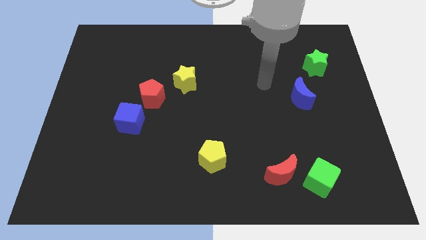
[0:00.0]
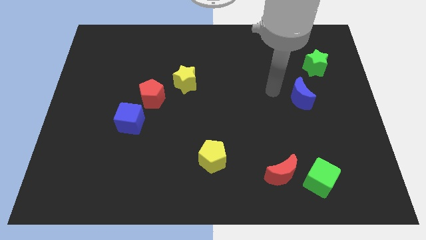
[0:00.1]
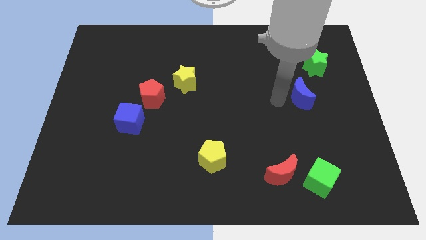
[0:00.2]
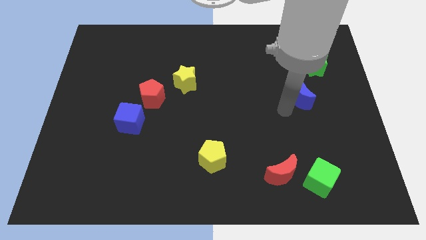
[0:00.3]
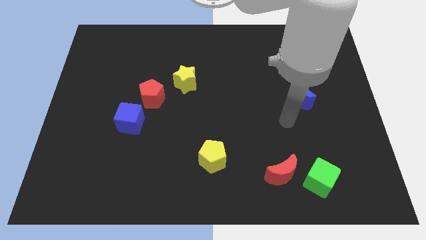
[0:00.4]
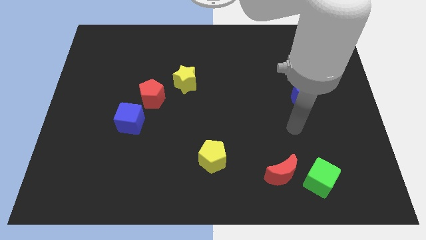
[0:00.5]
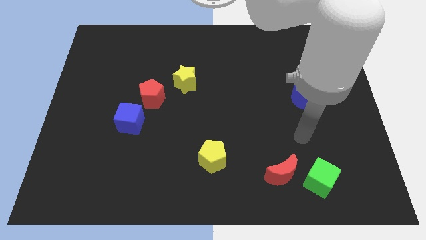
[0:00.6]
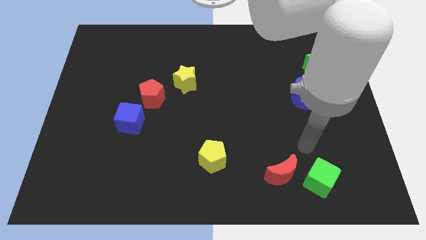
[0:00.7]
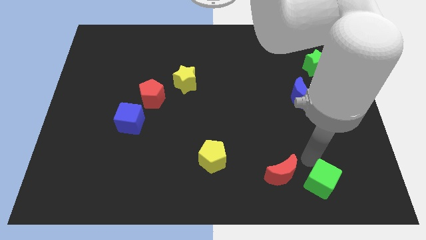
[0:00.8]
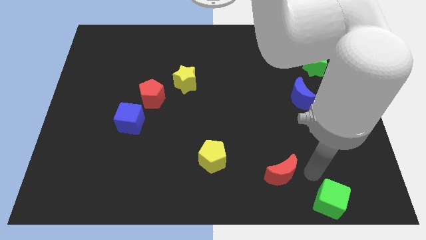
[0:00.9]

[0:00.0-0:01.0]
separate the red moon from the green cube

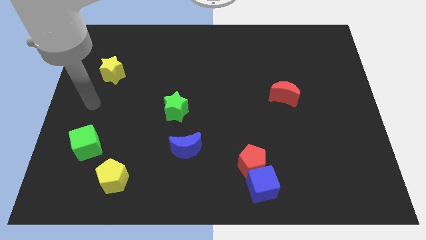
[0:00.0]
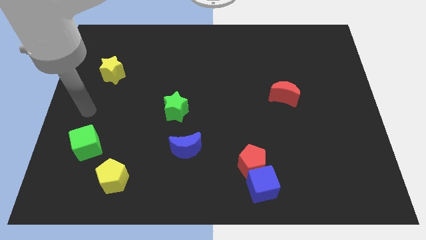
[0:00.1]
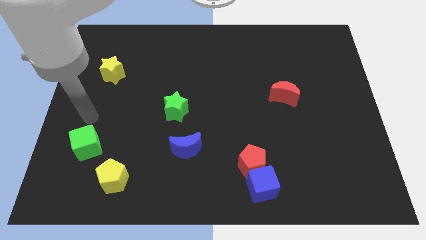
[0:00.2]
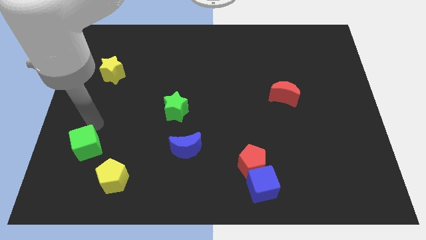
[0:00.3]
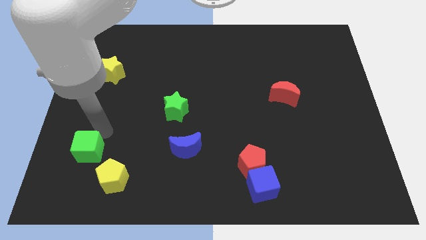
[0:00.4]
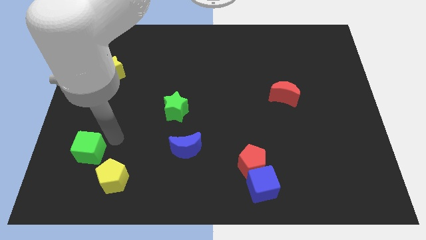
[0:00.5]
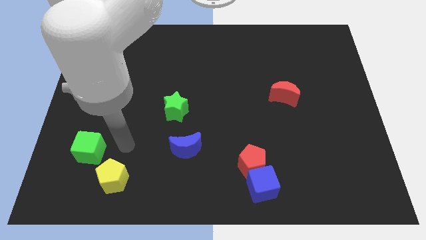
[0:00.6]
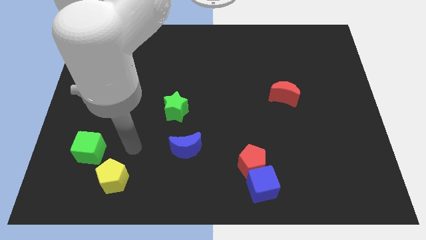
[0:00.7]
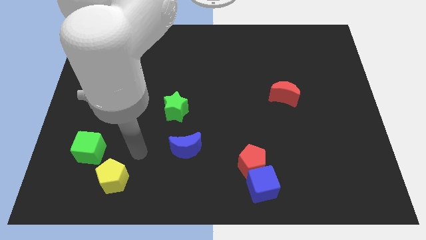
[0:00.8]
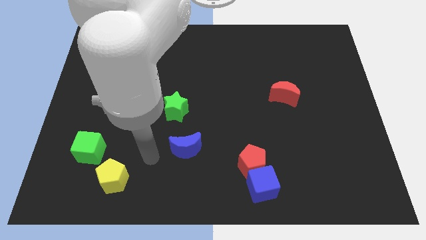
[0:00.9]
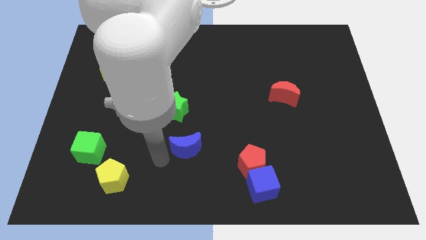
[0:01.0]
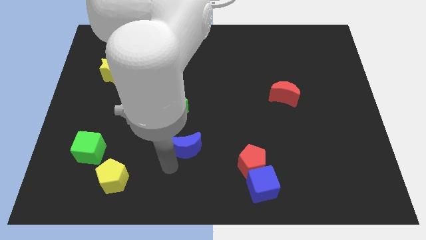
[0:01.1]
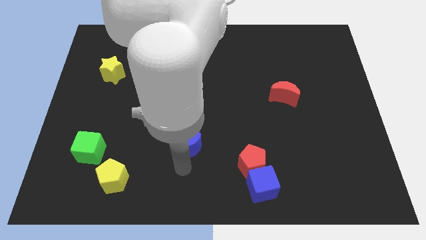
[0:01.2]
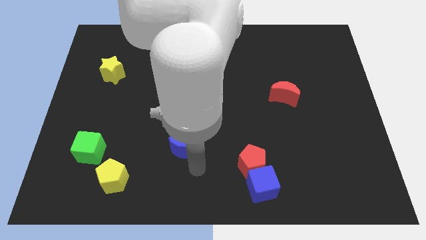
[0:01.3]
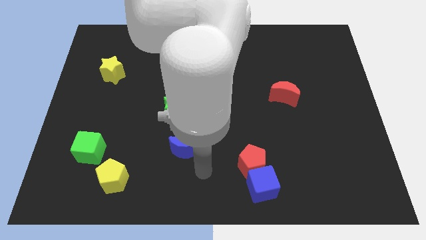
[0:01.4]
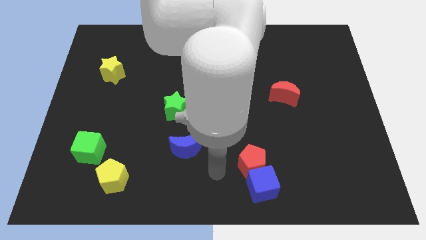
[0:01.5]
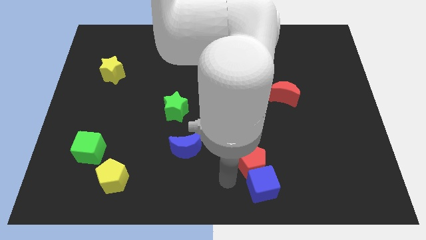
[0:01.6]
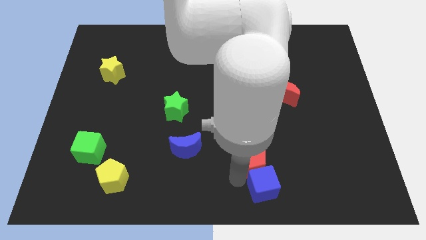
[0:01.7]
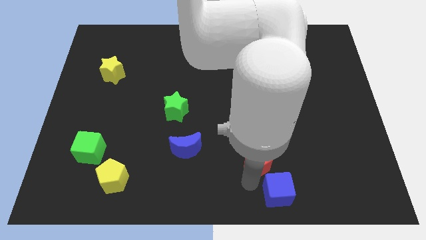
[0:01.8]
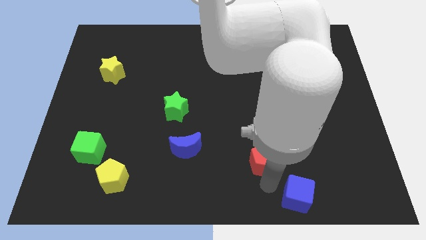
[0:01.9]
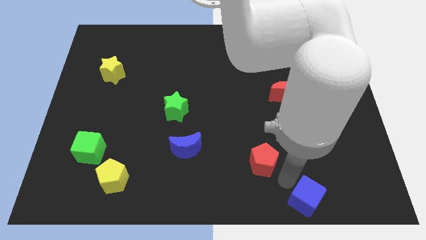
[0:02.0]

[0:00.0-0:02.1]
pull the red pentagon apart from the blue cube

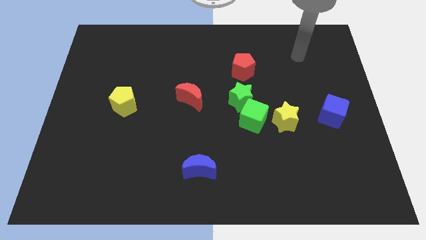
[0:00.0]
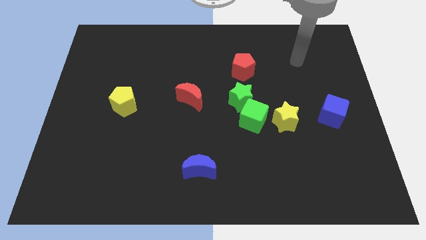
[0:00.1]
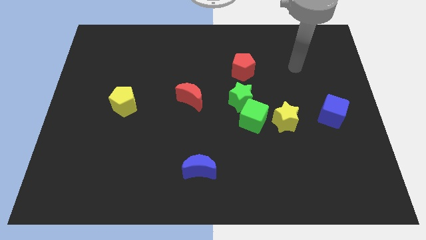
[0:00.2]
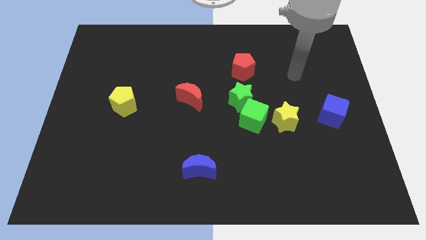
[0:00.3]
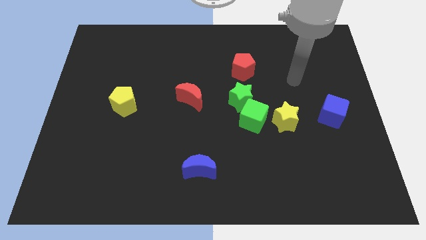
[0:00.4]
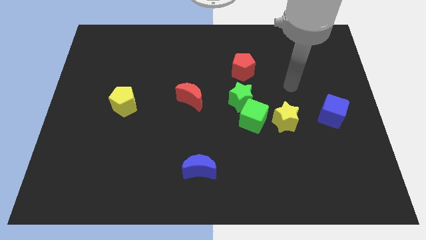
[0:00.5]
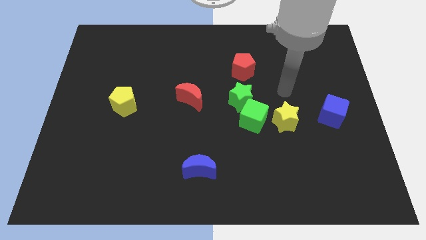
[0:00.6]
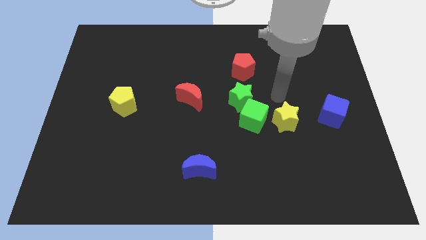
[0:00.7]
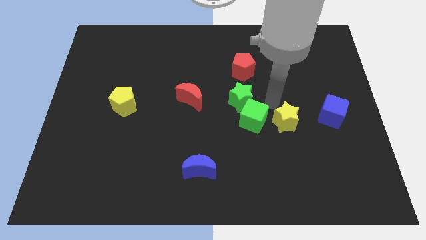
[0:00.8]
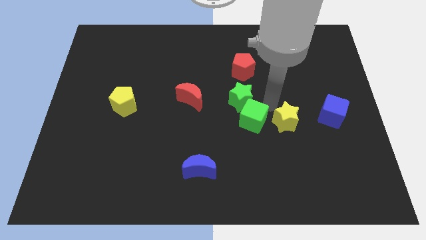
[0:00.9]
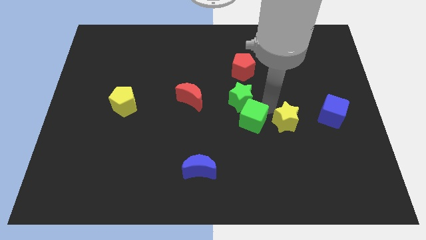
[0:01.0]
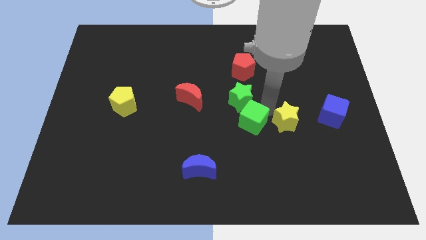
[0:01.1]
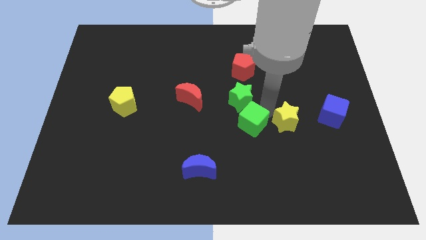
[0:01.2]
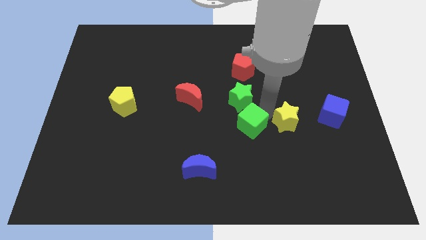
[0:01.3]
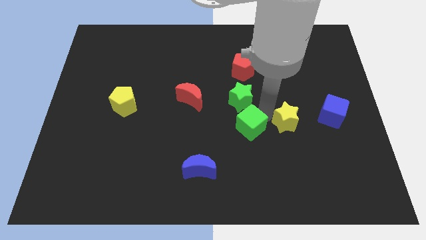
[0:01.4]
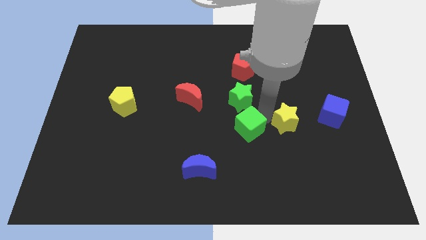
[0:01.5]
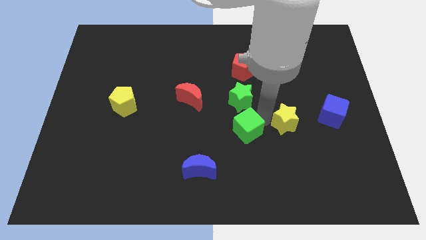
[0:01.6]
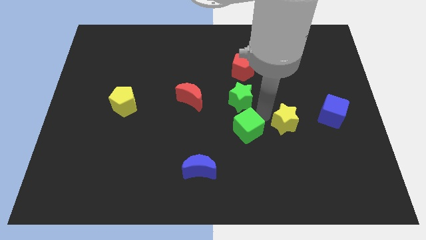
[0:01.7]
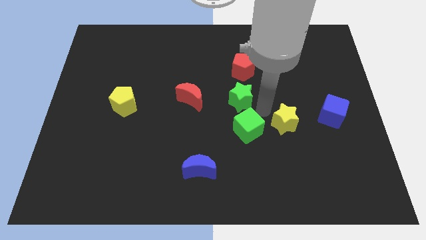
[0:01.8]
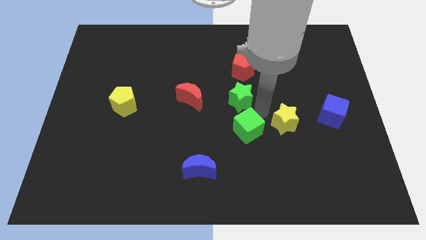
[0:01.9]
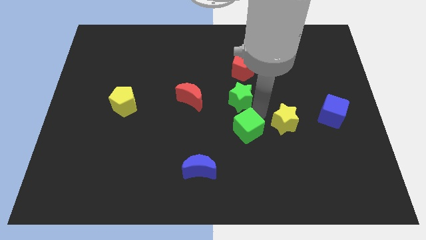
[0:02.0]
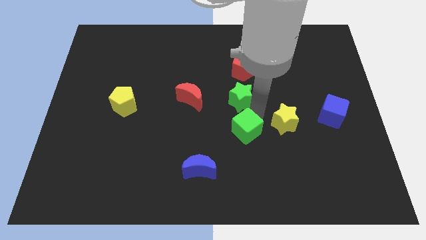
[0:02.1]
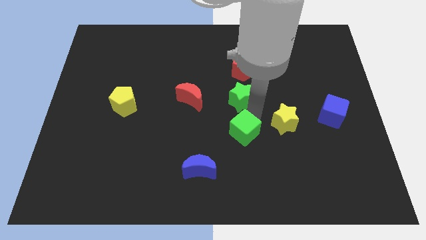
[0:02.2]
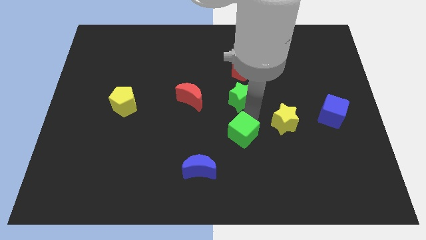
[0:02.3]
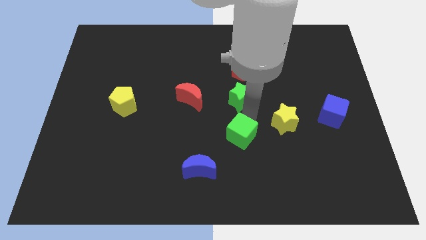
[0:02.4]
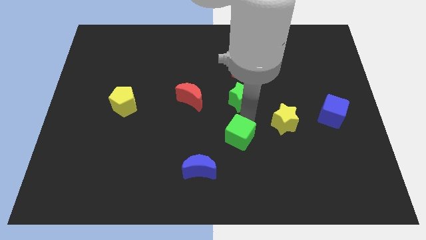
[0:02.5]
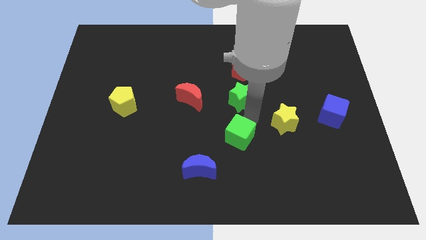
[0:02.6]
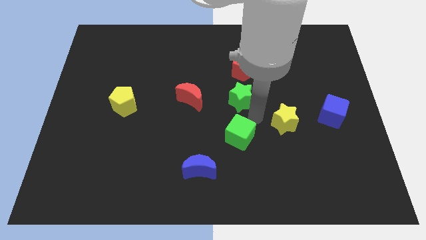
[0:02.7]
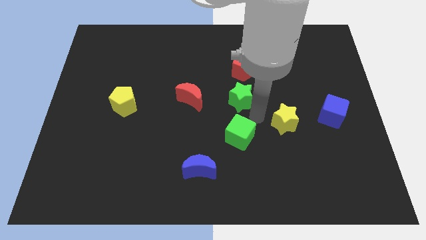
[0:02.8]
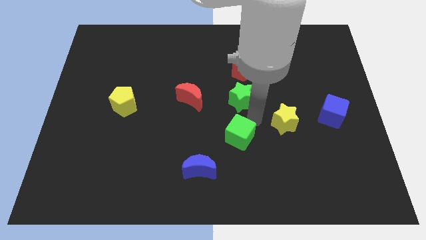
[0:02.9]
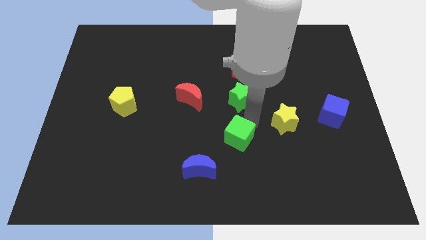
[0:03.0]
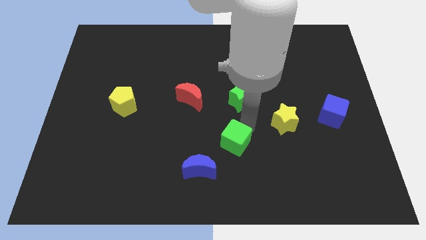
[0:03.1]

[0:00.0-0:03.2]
pull the green cube apart from the green star and yellow star

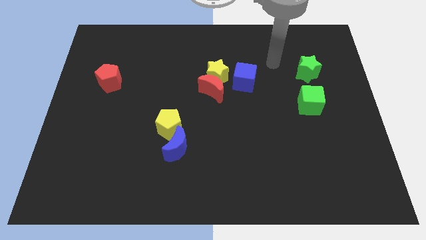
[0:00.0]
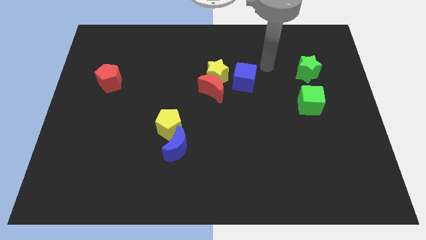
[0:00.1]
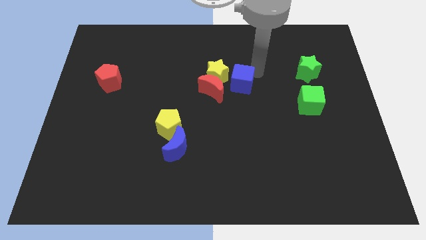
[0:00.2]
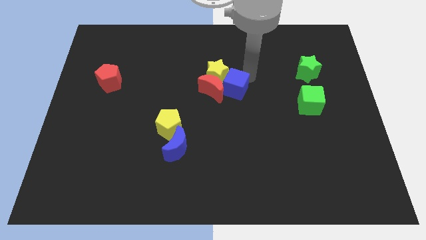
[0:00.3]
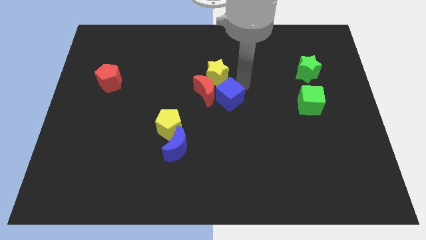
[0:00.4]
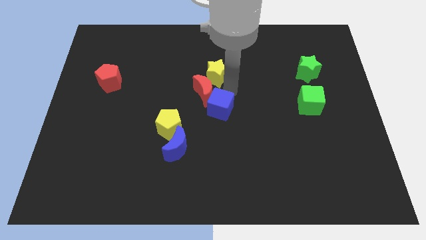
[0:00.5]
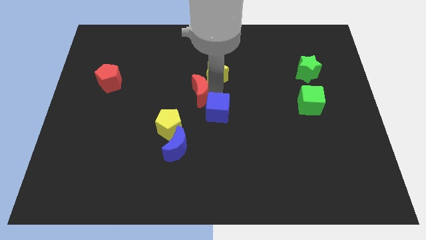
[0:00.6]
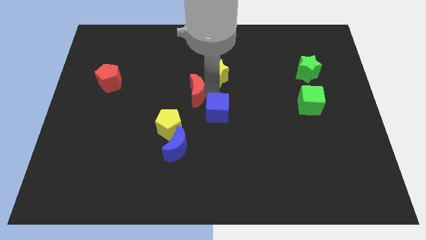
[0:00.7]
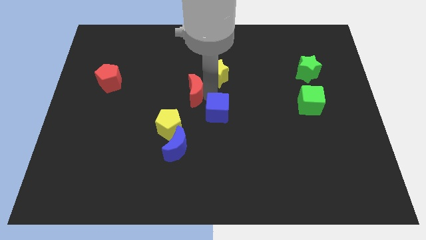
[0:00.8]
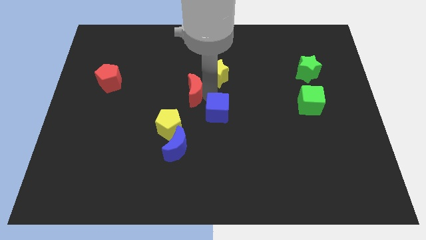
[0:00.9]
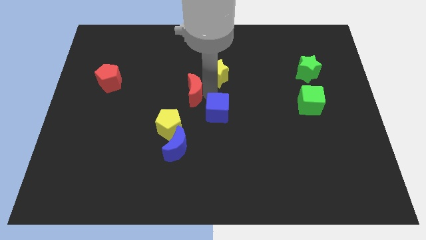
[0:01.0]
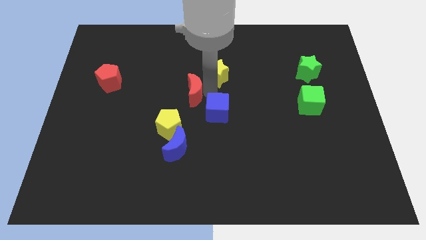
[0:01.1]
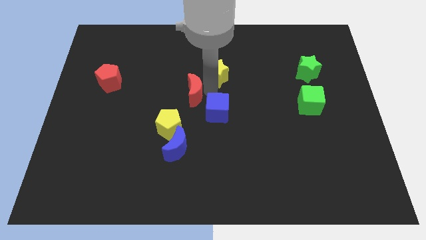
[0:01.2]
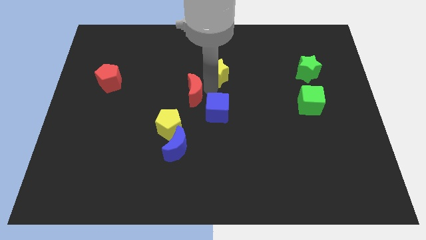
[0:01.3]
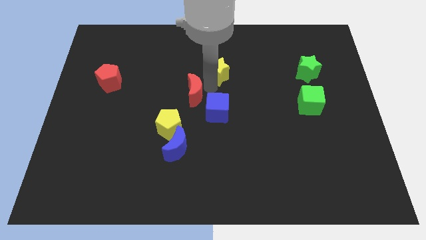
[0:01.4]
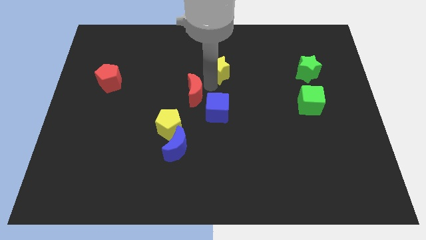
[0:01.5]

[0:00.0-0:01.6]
pull the yellow star apart from the red moon and blue cube

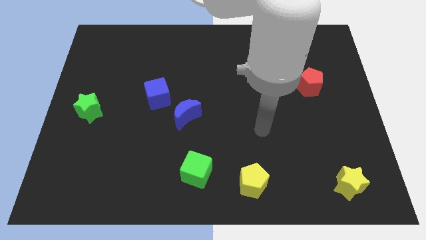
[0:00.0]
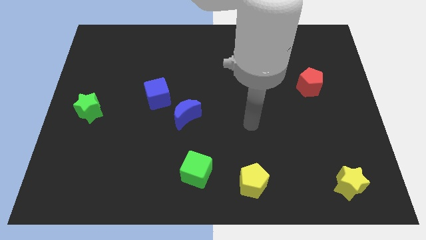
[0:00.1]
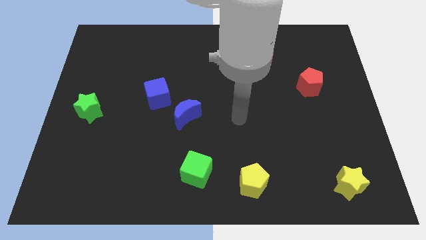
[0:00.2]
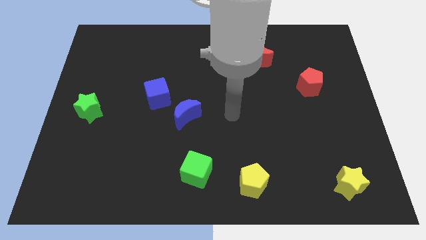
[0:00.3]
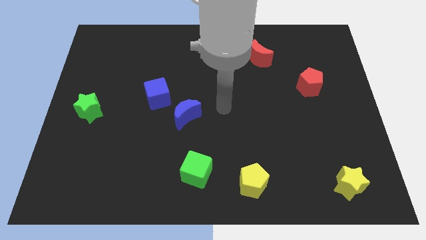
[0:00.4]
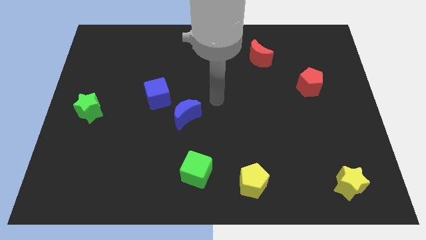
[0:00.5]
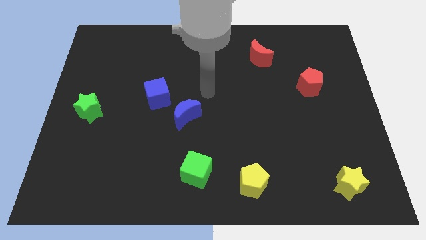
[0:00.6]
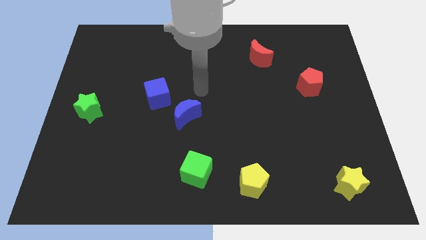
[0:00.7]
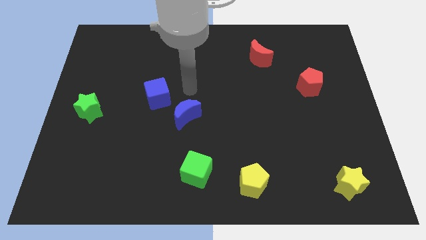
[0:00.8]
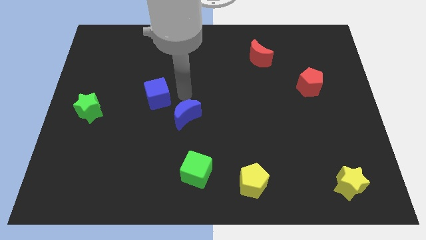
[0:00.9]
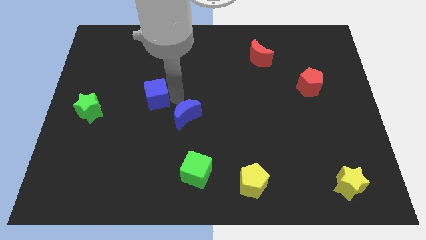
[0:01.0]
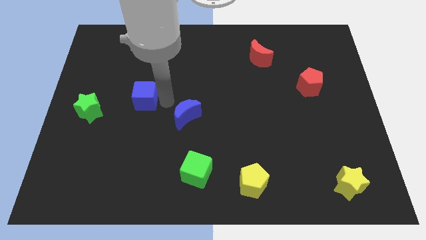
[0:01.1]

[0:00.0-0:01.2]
move the blue moon away from the blue cube
